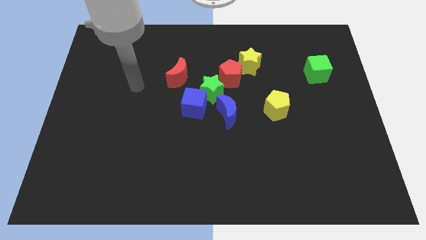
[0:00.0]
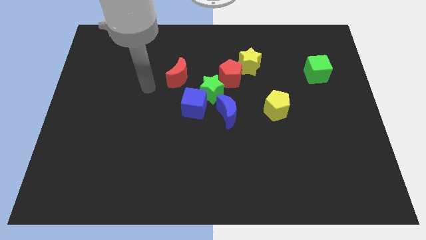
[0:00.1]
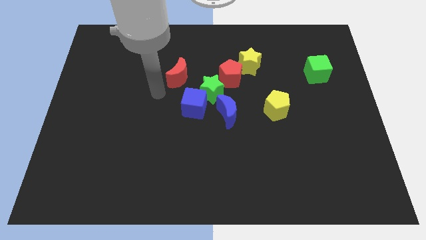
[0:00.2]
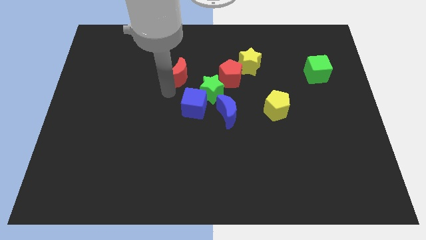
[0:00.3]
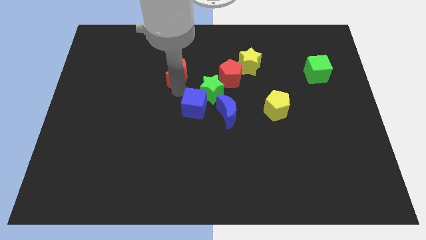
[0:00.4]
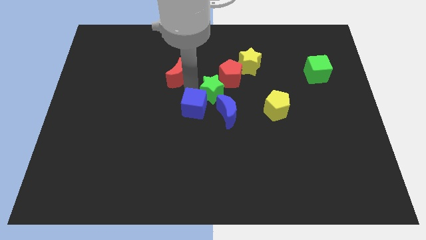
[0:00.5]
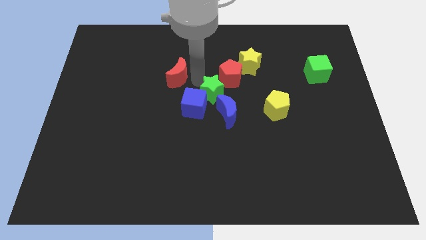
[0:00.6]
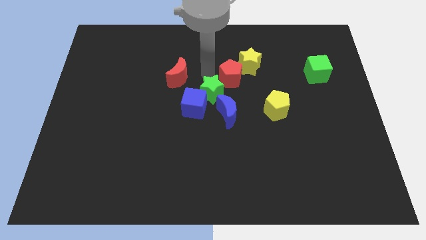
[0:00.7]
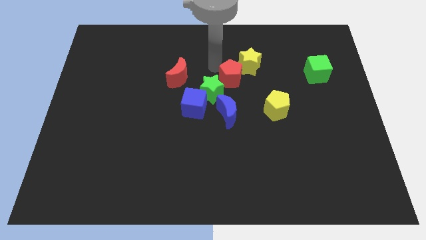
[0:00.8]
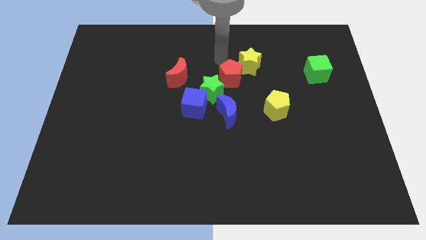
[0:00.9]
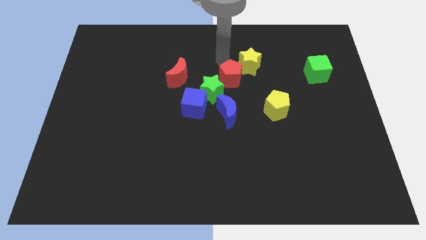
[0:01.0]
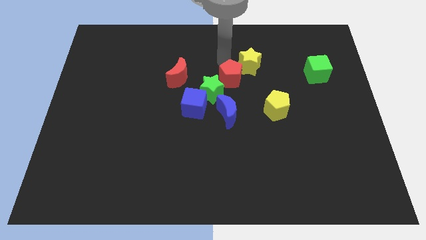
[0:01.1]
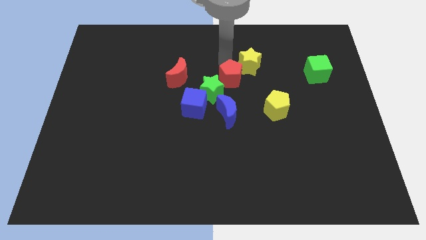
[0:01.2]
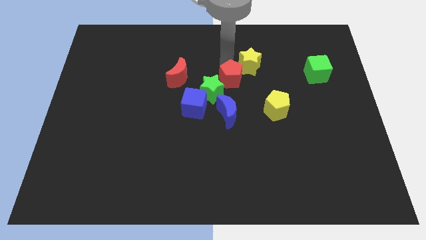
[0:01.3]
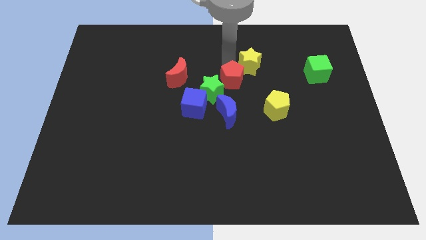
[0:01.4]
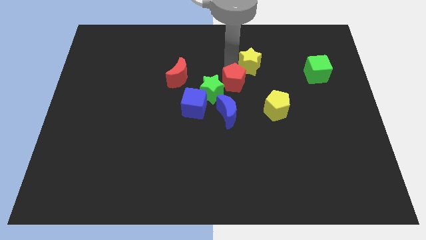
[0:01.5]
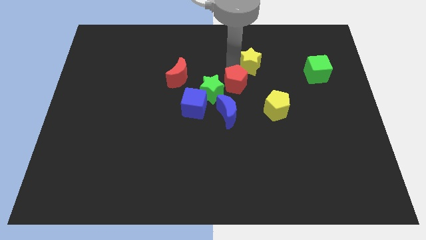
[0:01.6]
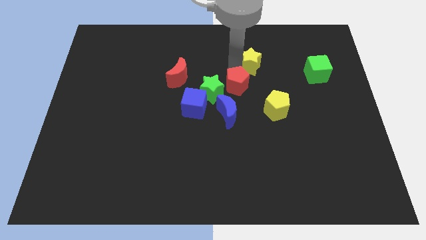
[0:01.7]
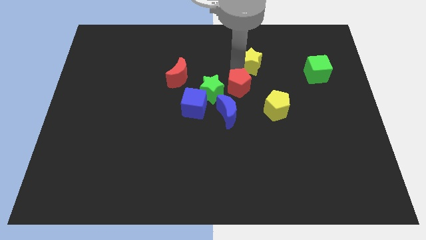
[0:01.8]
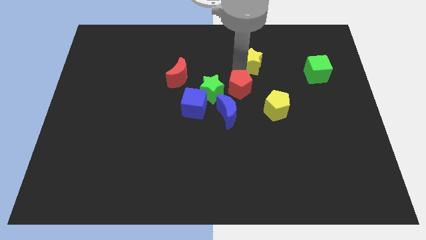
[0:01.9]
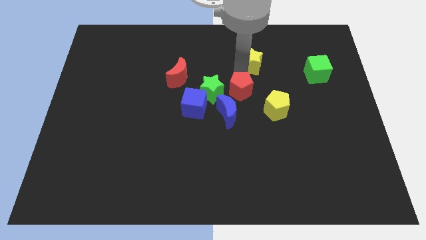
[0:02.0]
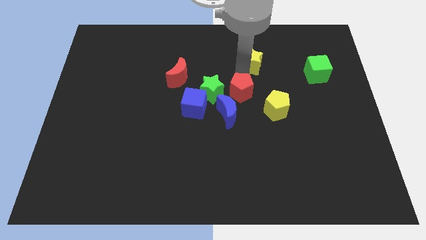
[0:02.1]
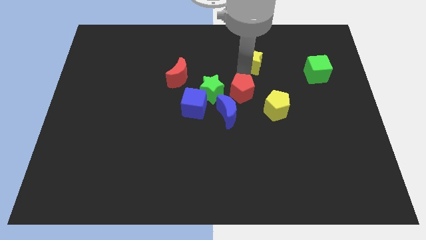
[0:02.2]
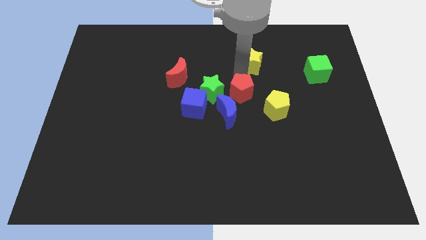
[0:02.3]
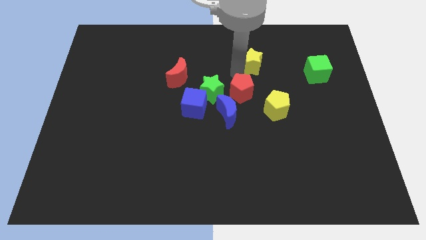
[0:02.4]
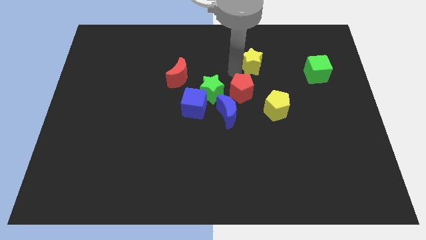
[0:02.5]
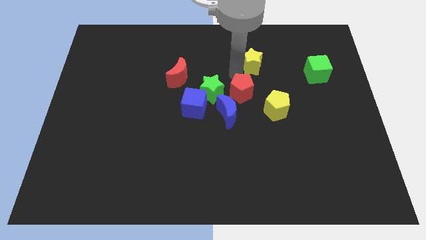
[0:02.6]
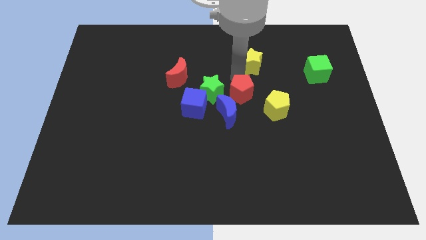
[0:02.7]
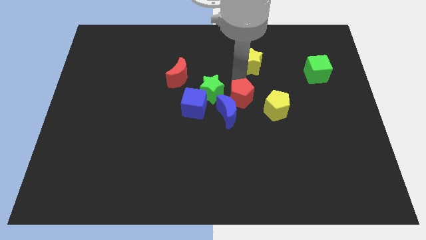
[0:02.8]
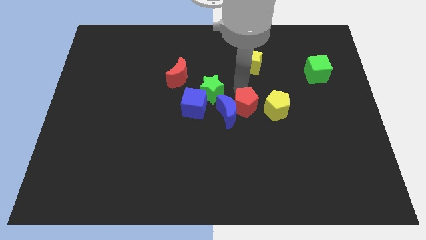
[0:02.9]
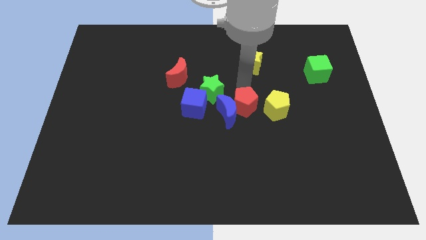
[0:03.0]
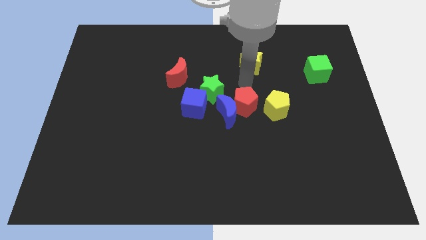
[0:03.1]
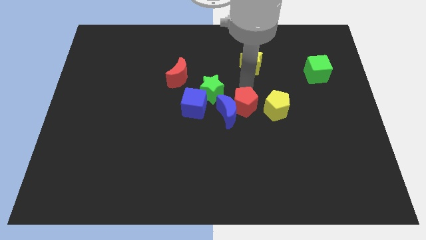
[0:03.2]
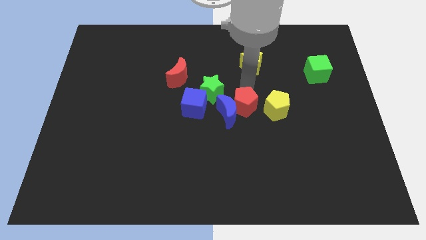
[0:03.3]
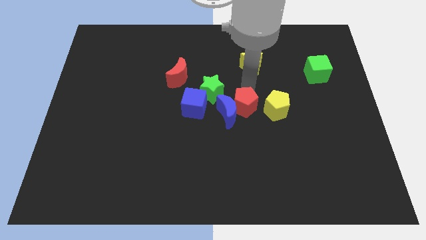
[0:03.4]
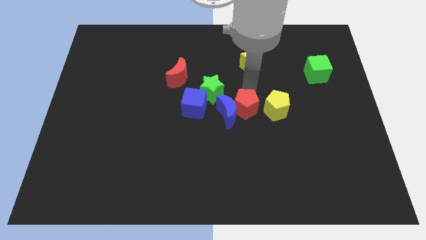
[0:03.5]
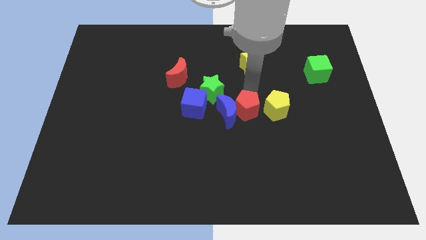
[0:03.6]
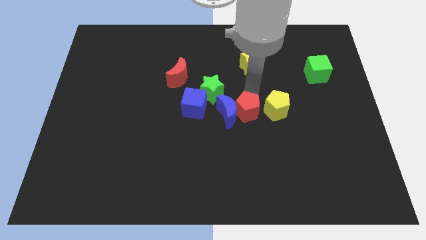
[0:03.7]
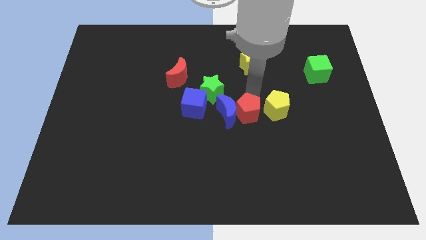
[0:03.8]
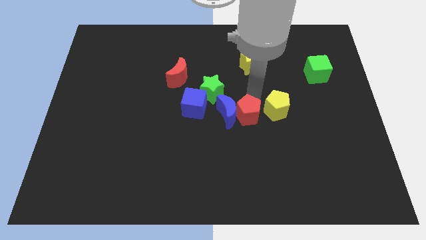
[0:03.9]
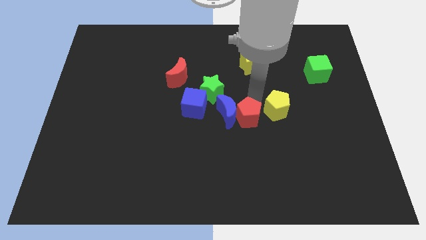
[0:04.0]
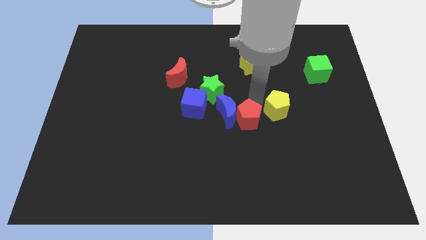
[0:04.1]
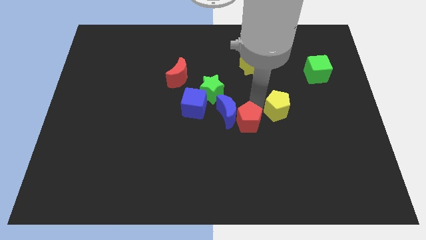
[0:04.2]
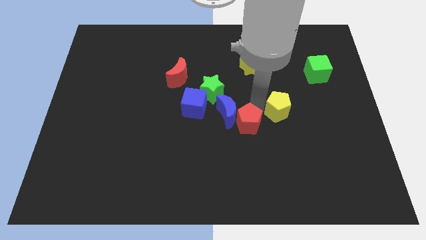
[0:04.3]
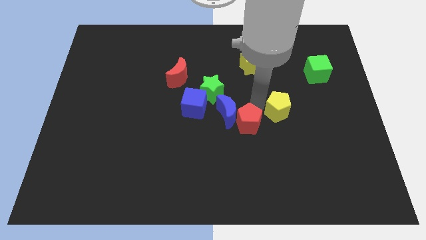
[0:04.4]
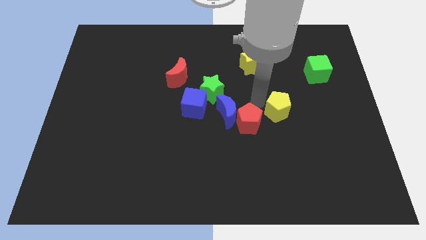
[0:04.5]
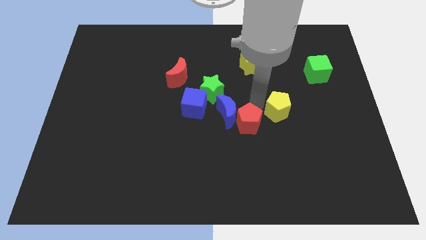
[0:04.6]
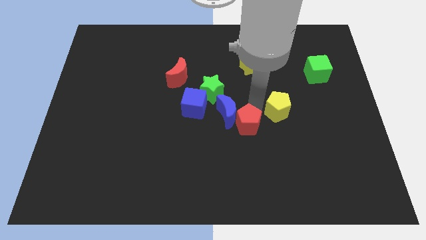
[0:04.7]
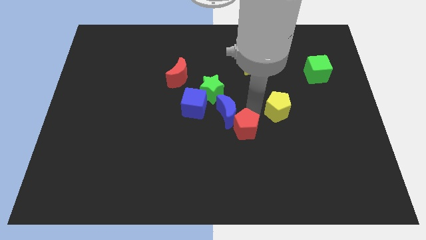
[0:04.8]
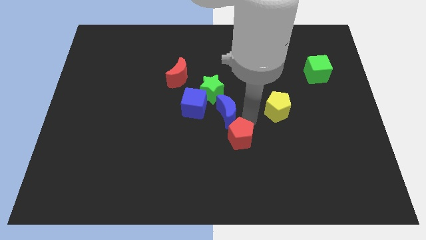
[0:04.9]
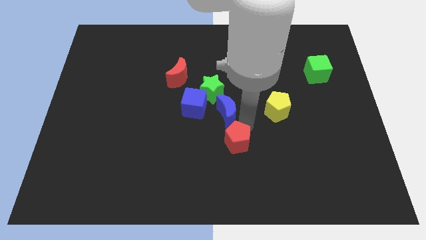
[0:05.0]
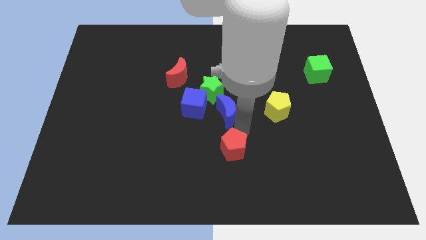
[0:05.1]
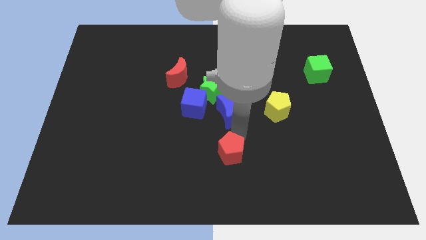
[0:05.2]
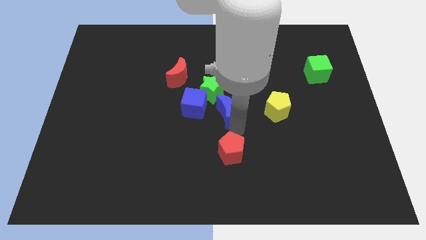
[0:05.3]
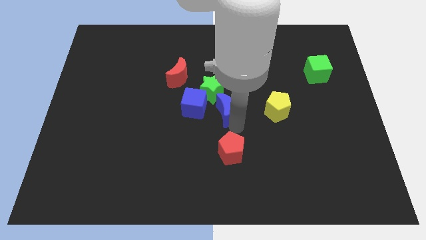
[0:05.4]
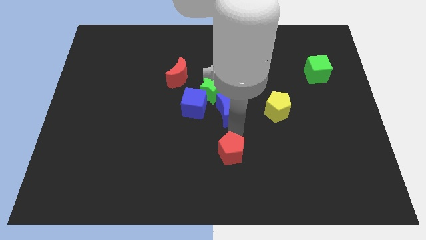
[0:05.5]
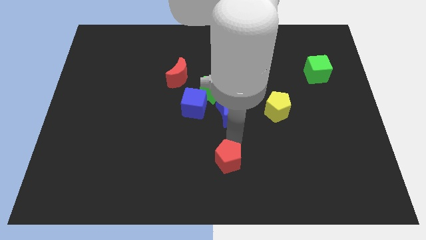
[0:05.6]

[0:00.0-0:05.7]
slide the red pentagon to the bottom side
